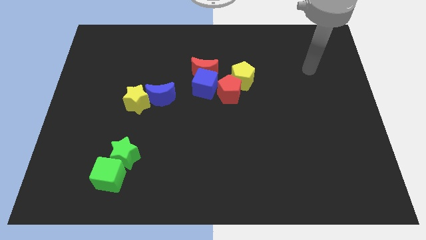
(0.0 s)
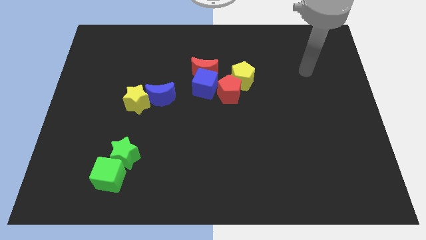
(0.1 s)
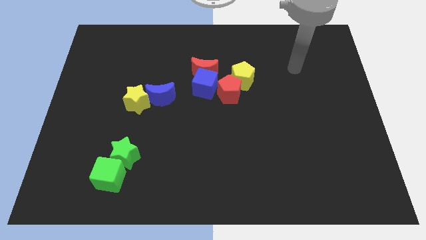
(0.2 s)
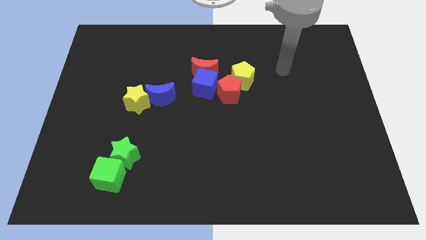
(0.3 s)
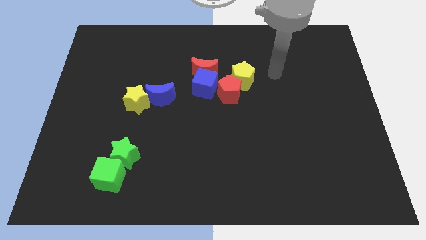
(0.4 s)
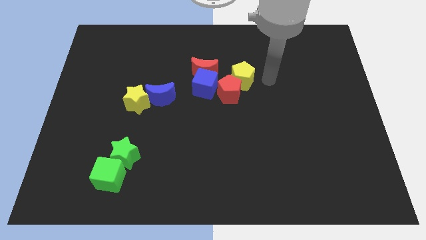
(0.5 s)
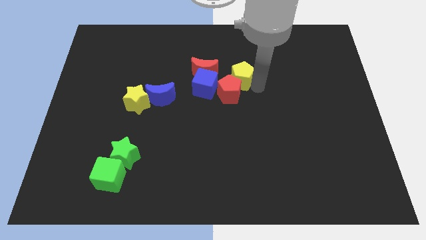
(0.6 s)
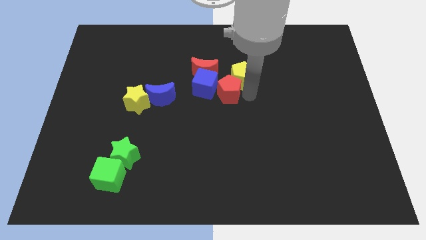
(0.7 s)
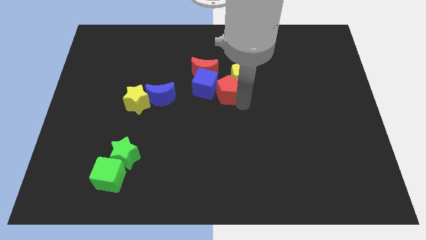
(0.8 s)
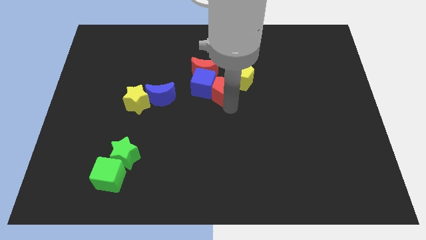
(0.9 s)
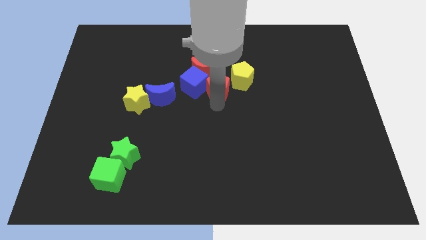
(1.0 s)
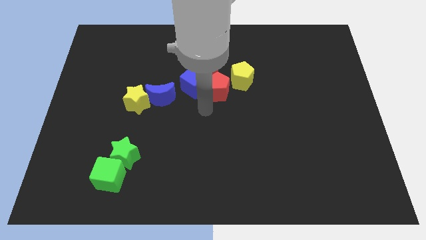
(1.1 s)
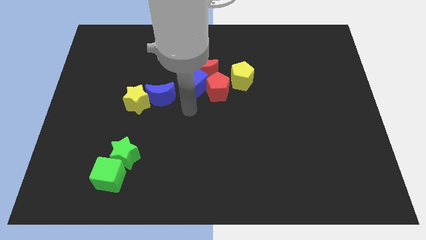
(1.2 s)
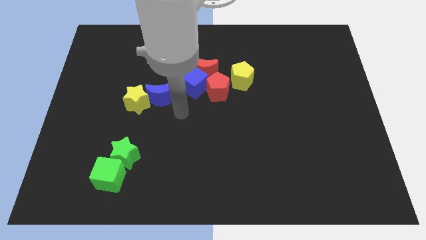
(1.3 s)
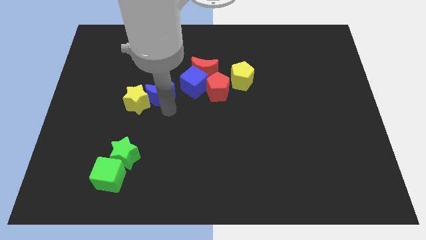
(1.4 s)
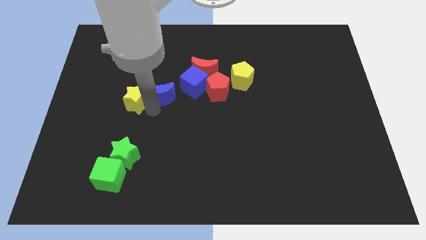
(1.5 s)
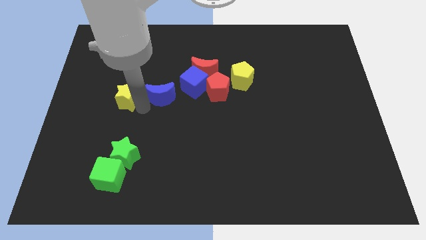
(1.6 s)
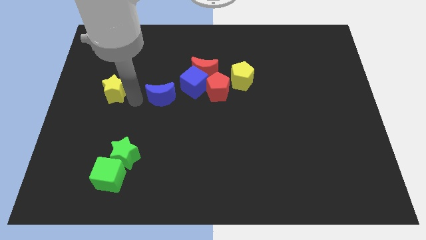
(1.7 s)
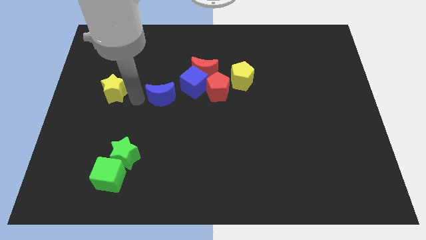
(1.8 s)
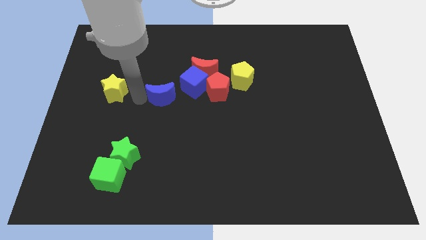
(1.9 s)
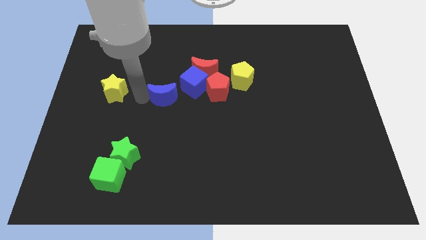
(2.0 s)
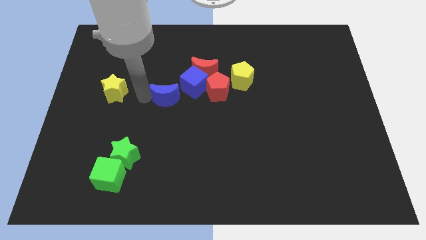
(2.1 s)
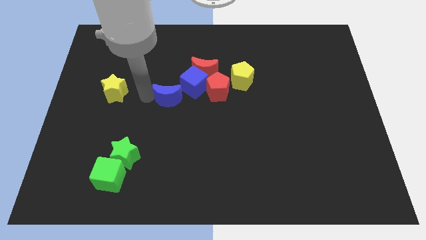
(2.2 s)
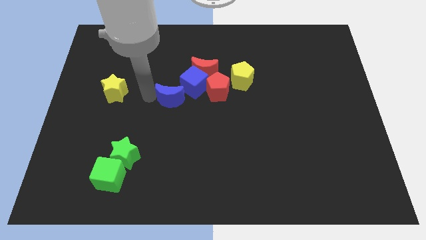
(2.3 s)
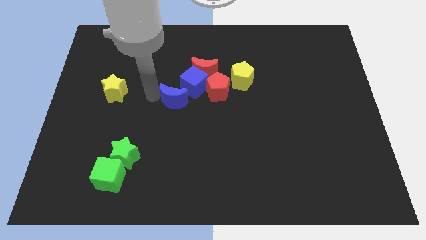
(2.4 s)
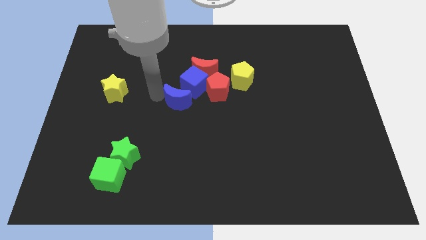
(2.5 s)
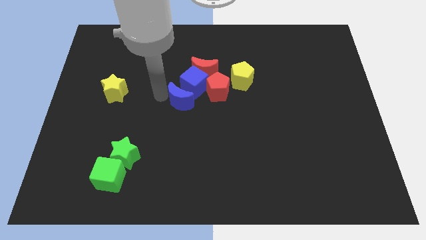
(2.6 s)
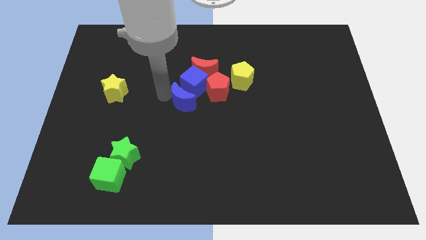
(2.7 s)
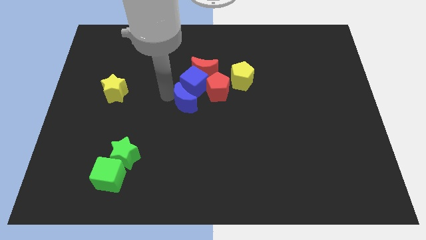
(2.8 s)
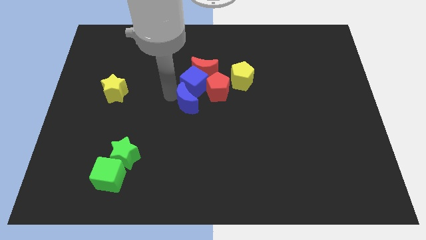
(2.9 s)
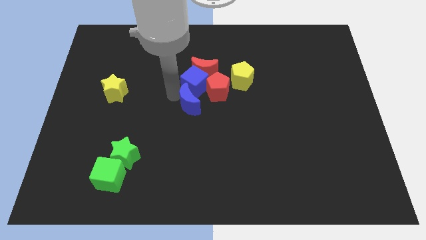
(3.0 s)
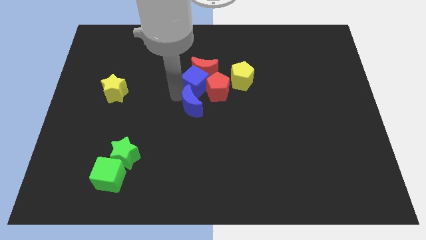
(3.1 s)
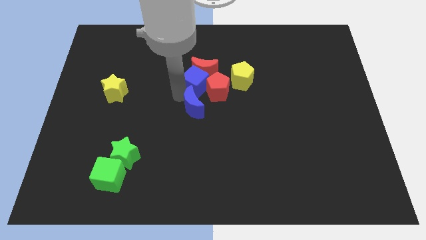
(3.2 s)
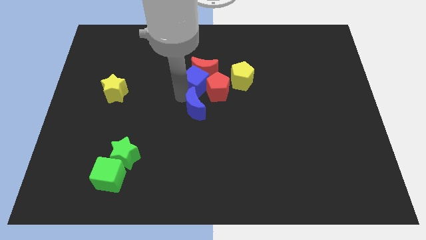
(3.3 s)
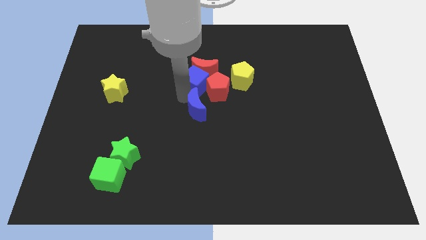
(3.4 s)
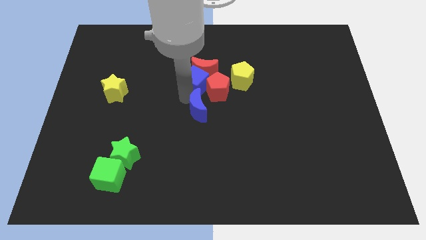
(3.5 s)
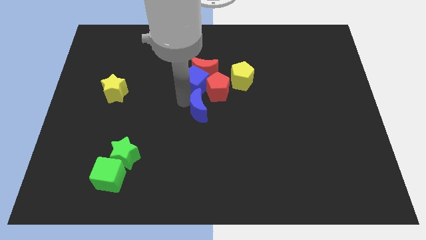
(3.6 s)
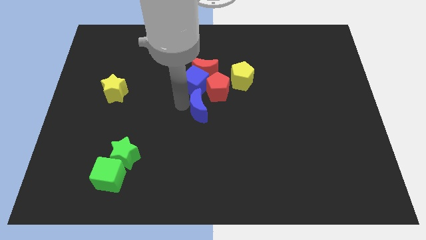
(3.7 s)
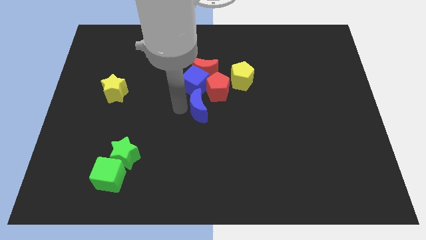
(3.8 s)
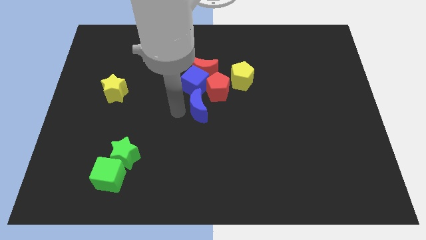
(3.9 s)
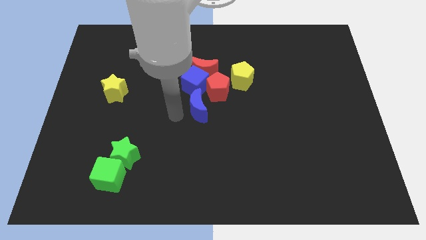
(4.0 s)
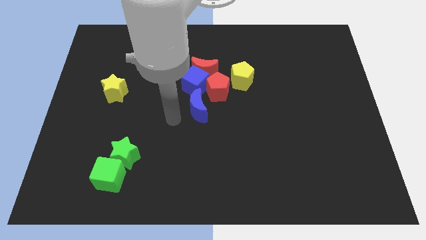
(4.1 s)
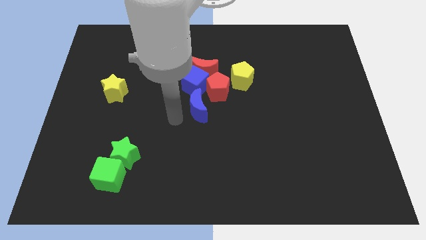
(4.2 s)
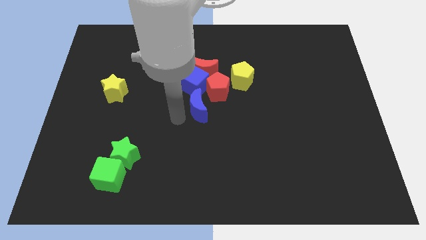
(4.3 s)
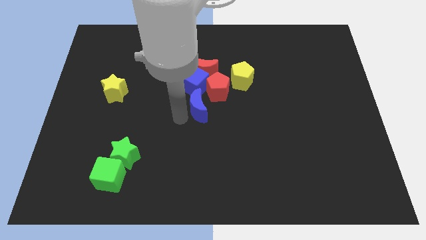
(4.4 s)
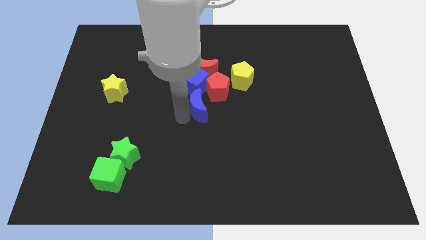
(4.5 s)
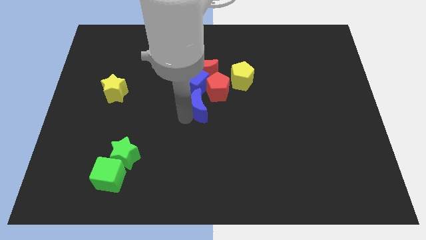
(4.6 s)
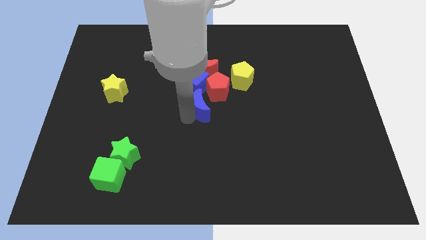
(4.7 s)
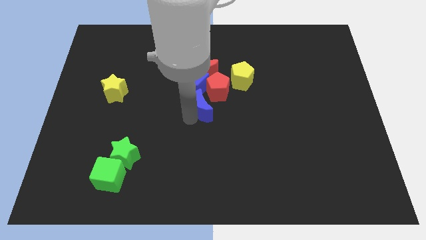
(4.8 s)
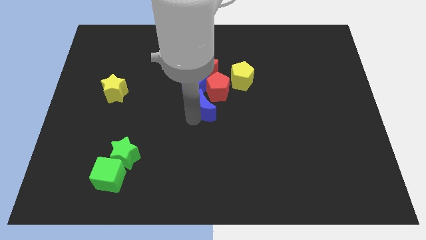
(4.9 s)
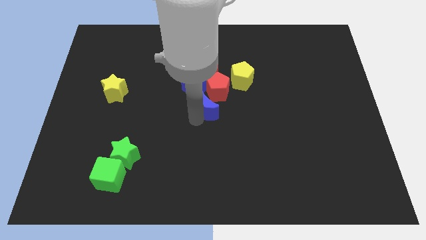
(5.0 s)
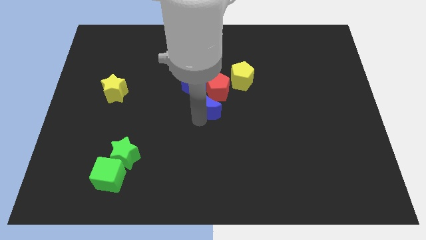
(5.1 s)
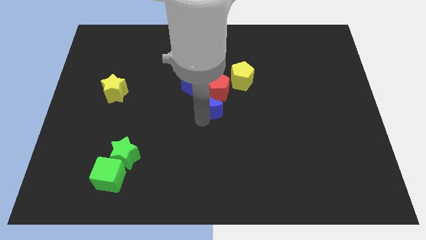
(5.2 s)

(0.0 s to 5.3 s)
push the blue moon next to the red pentagon
